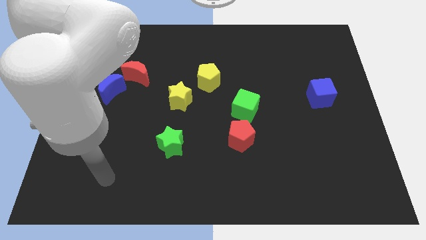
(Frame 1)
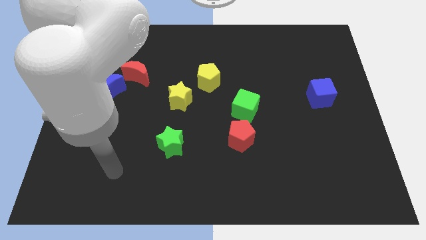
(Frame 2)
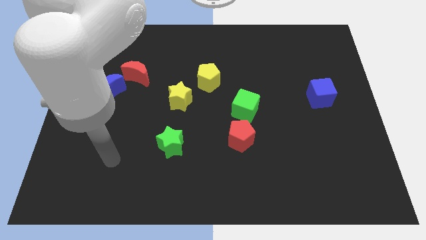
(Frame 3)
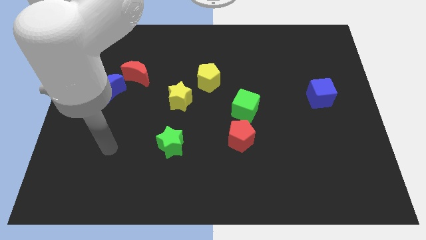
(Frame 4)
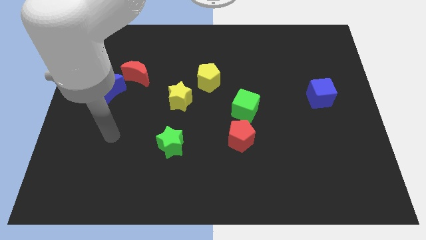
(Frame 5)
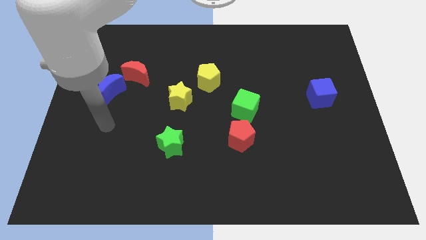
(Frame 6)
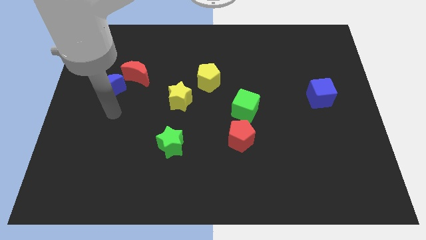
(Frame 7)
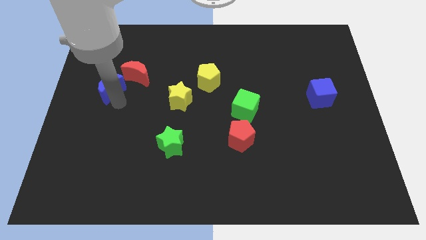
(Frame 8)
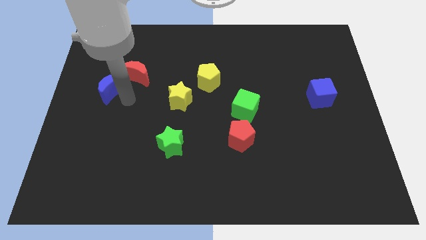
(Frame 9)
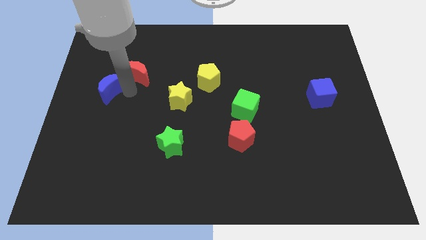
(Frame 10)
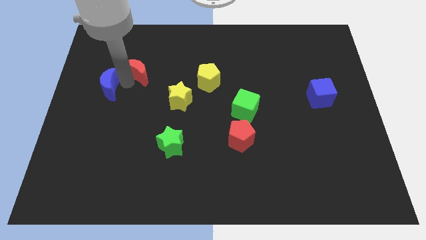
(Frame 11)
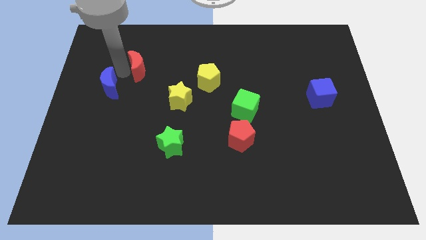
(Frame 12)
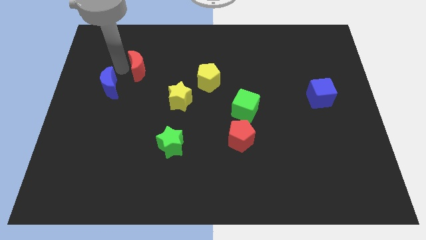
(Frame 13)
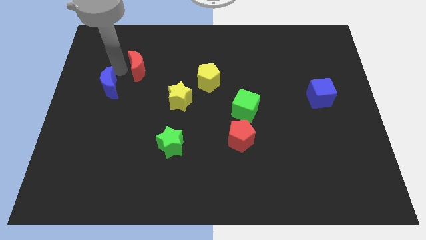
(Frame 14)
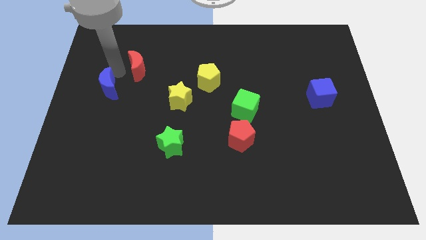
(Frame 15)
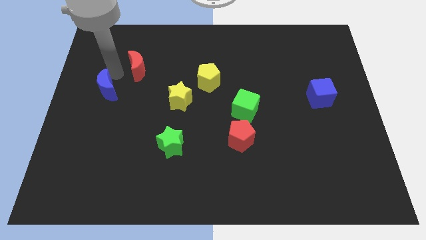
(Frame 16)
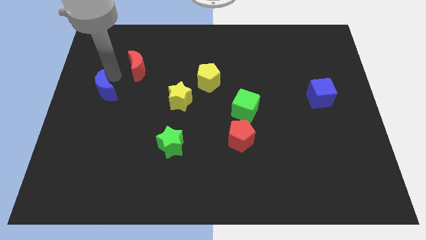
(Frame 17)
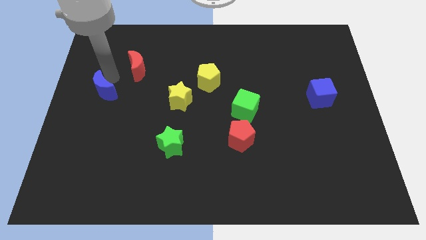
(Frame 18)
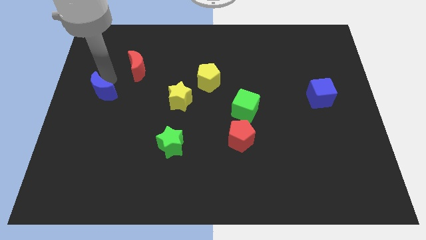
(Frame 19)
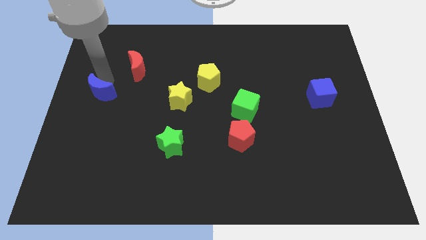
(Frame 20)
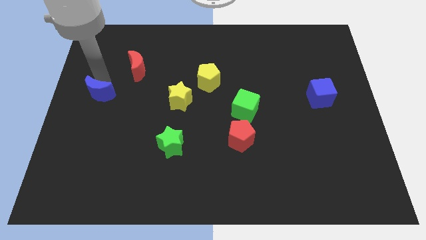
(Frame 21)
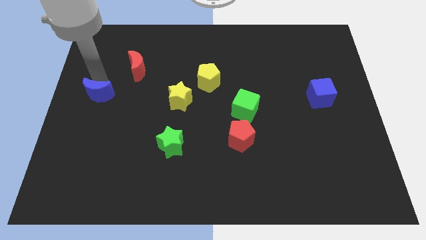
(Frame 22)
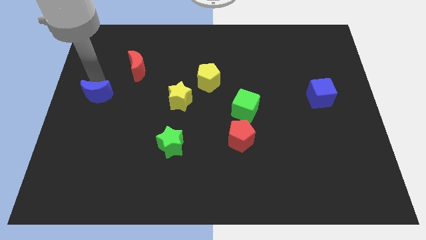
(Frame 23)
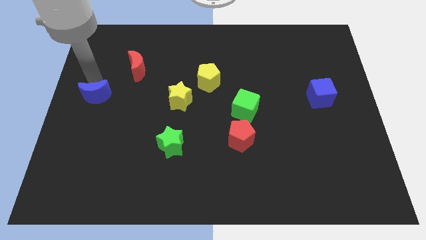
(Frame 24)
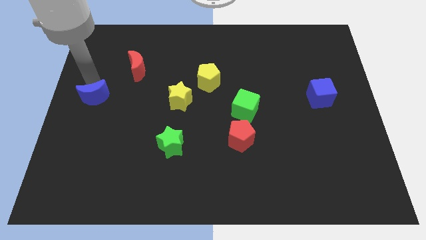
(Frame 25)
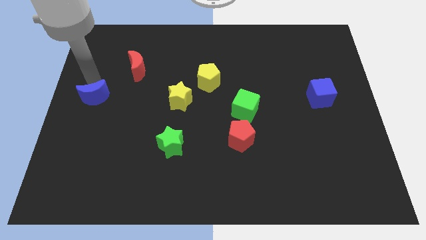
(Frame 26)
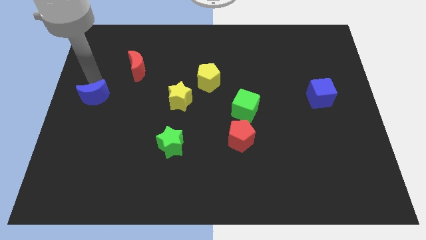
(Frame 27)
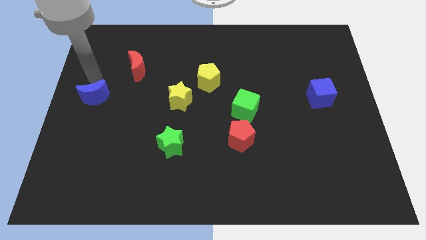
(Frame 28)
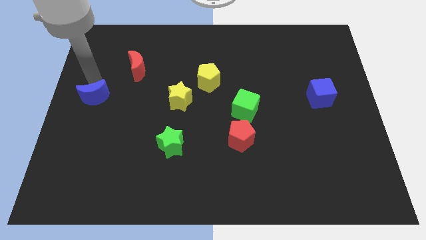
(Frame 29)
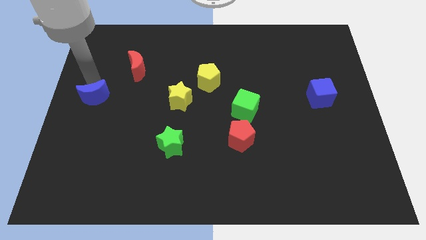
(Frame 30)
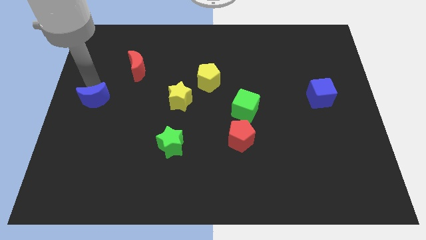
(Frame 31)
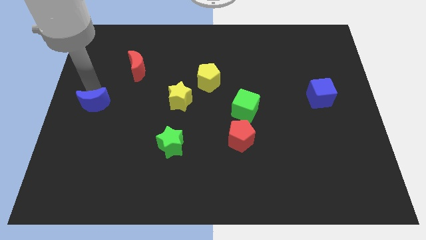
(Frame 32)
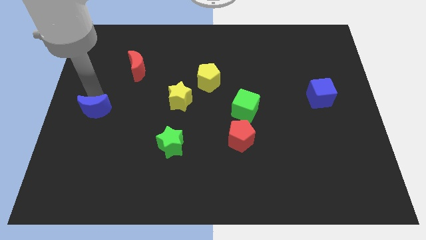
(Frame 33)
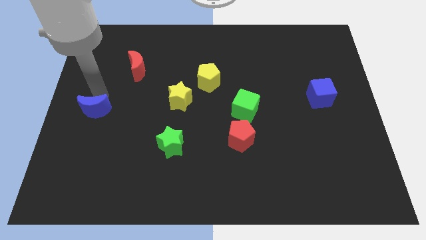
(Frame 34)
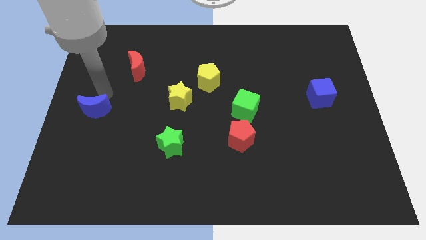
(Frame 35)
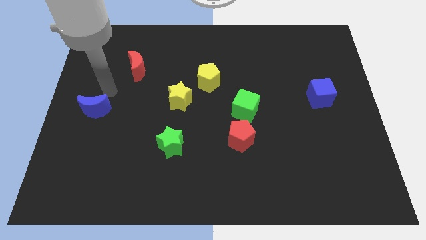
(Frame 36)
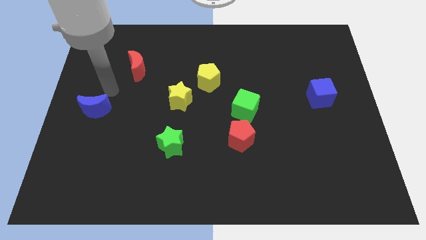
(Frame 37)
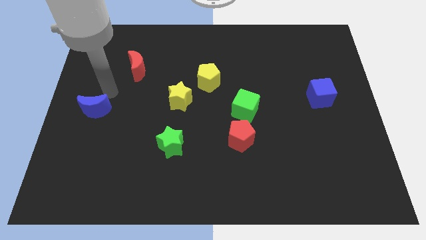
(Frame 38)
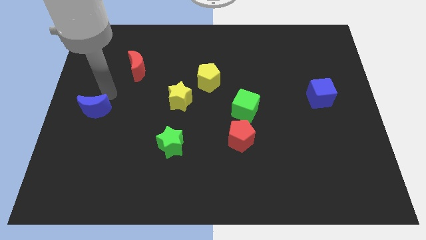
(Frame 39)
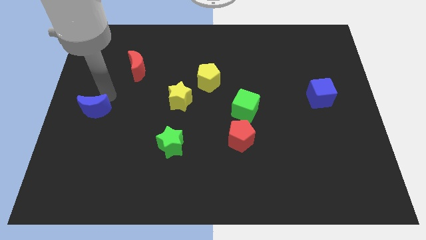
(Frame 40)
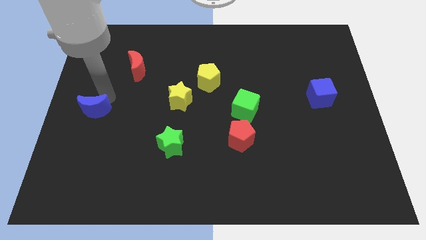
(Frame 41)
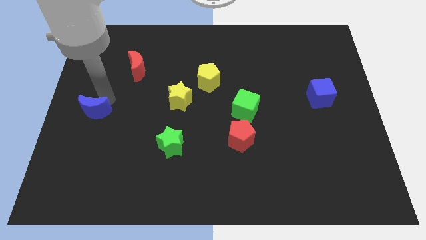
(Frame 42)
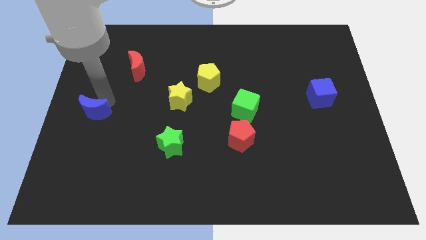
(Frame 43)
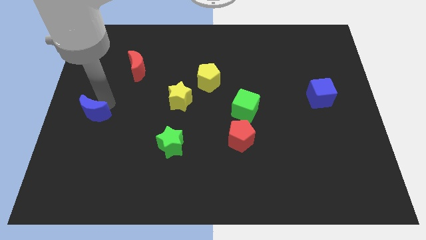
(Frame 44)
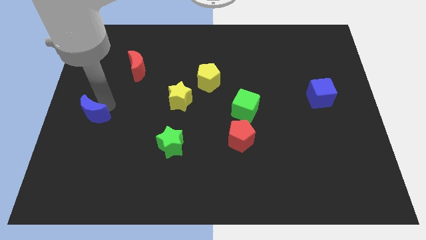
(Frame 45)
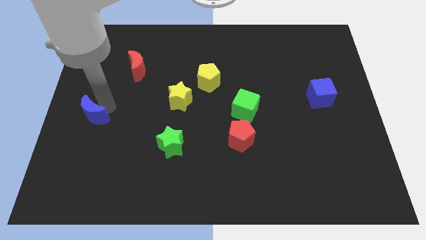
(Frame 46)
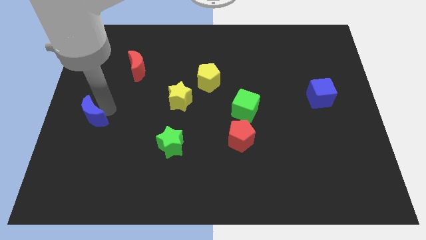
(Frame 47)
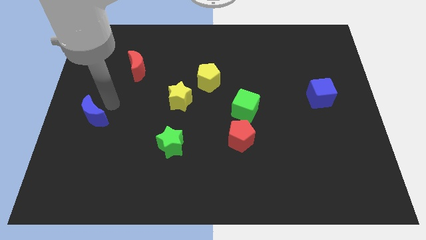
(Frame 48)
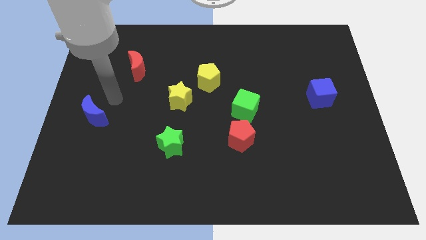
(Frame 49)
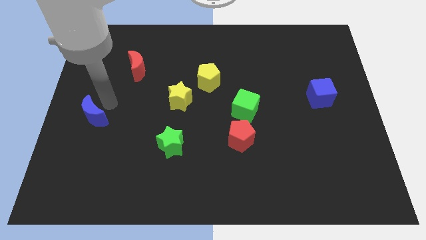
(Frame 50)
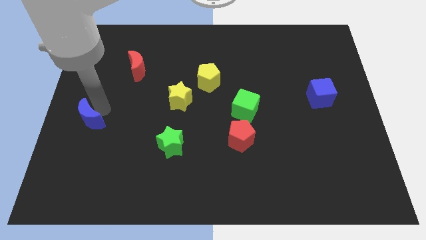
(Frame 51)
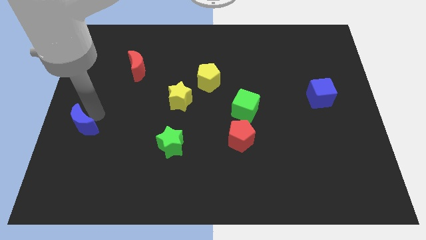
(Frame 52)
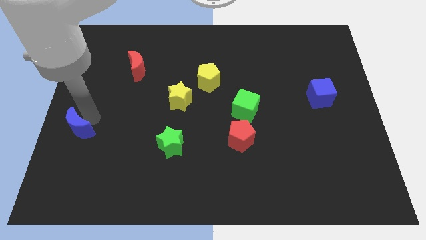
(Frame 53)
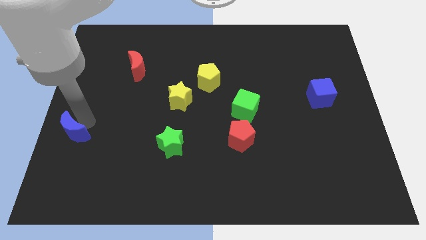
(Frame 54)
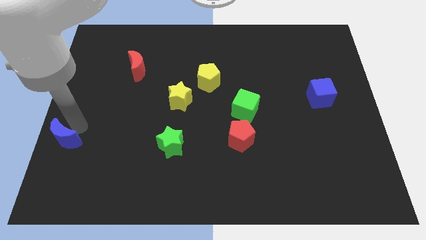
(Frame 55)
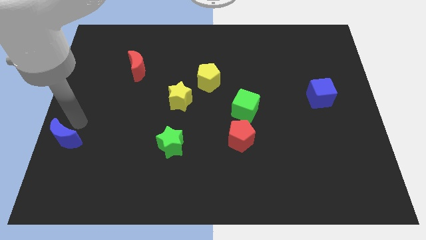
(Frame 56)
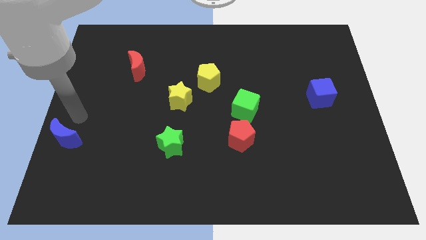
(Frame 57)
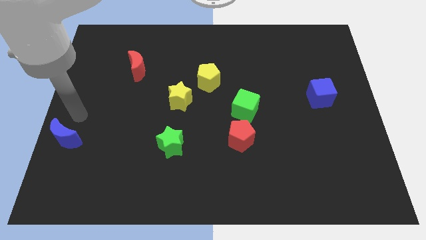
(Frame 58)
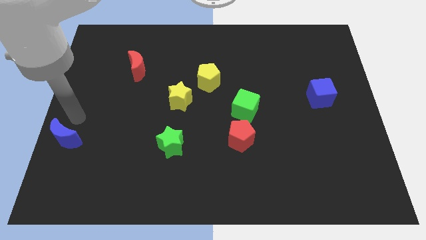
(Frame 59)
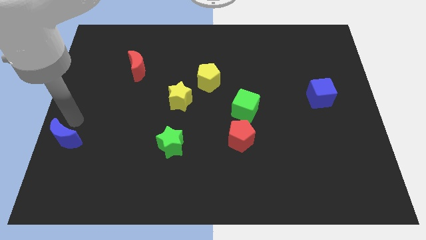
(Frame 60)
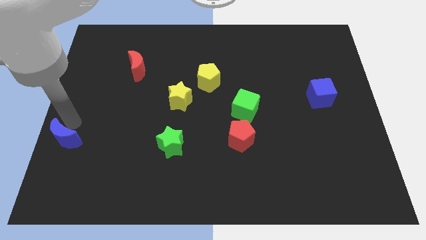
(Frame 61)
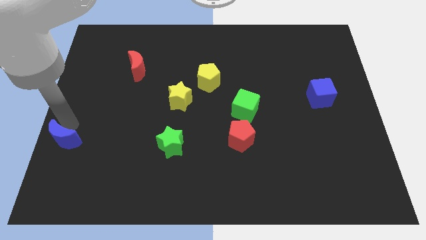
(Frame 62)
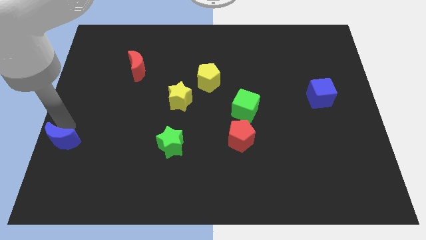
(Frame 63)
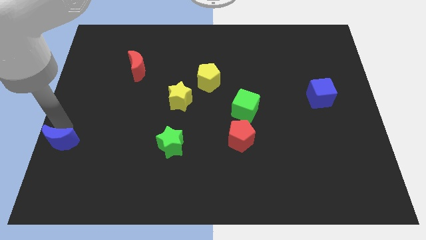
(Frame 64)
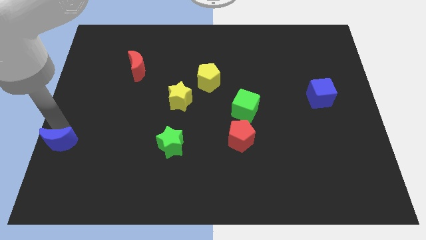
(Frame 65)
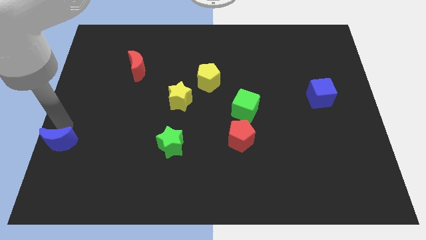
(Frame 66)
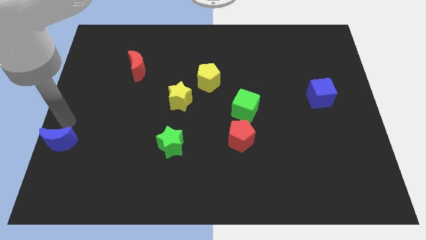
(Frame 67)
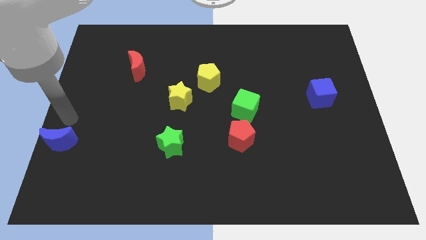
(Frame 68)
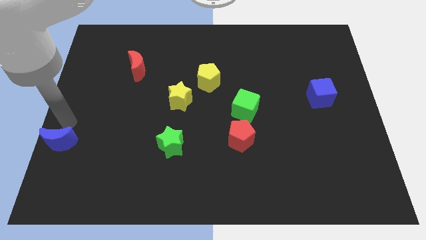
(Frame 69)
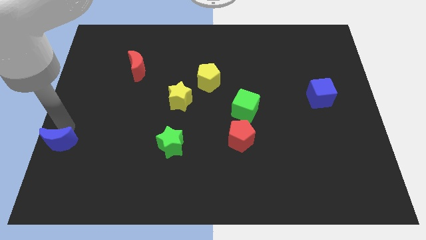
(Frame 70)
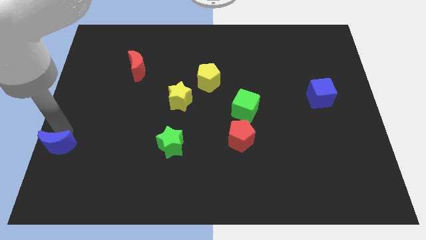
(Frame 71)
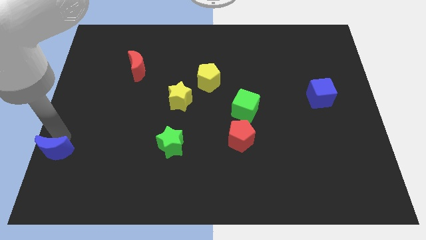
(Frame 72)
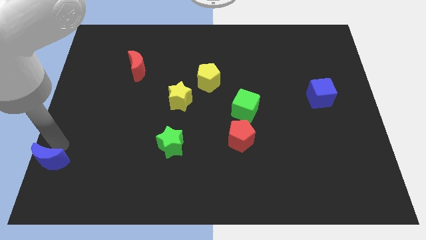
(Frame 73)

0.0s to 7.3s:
push the blue moon to the bottom left of the board
